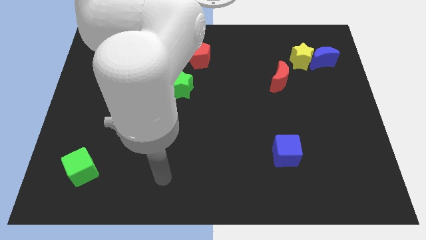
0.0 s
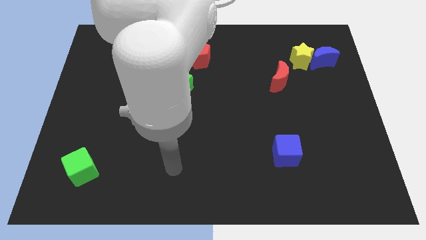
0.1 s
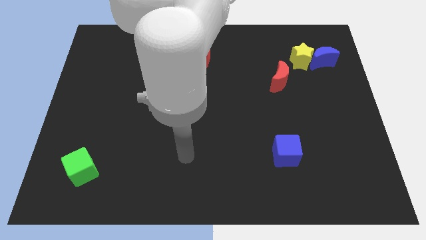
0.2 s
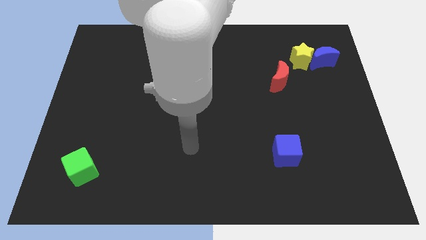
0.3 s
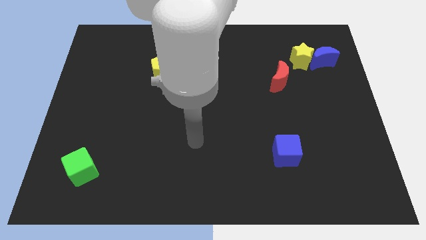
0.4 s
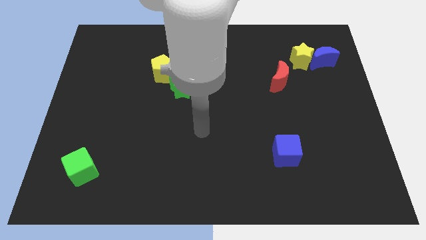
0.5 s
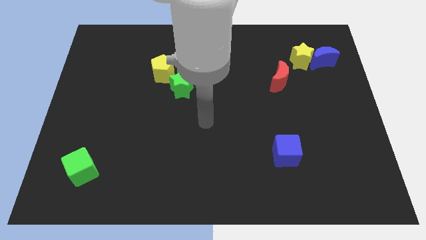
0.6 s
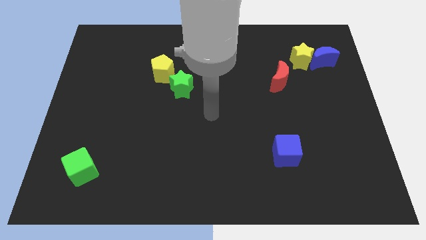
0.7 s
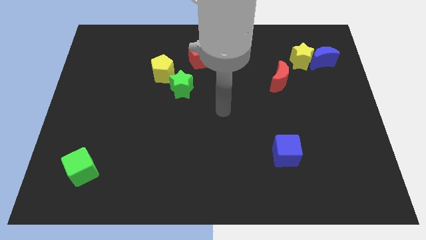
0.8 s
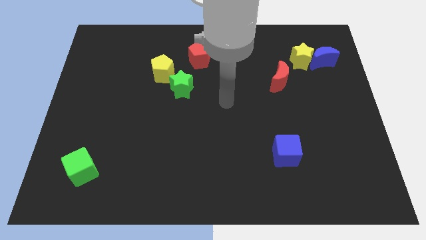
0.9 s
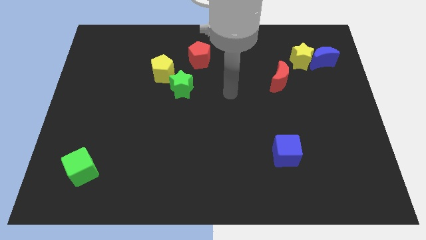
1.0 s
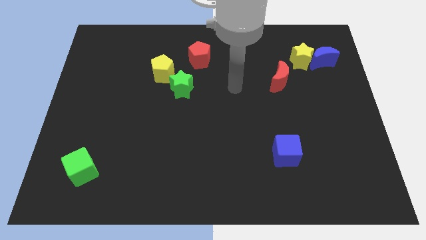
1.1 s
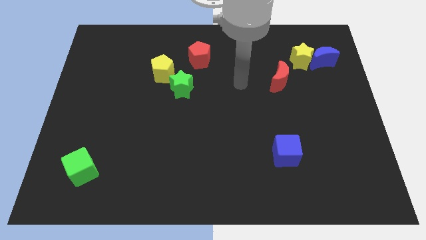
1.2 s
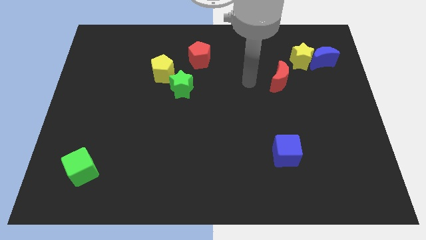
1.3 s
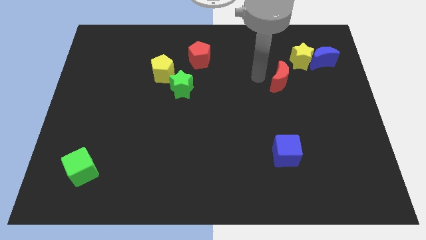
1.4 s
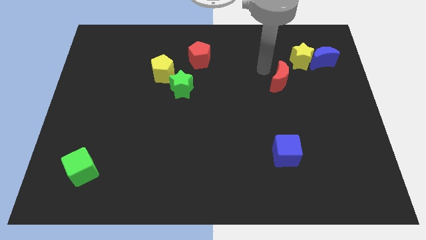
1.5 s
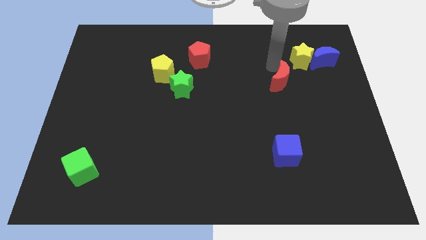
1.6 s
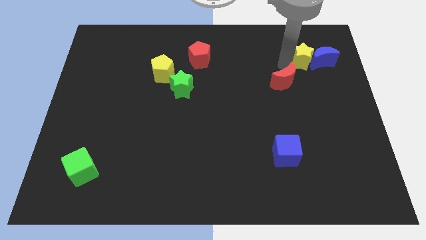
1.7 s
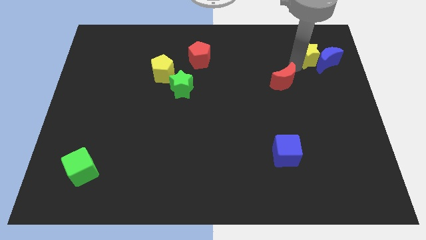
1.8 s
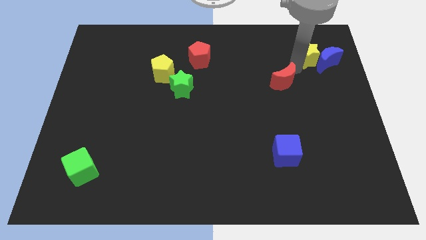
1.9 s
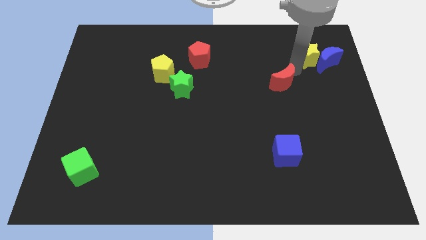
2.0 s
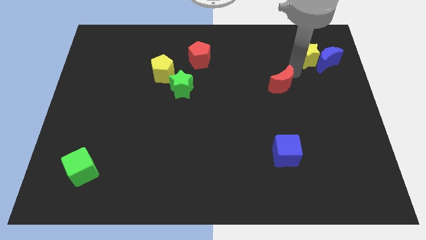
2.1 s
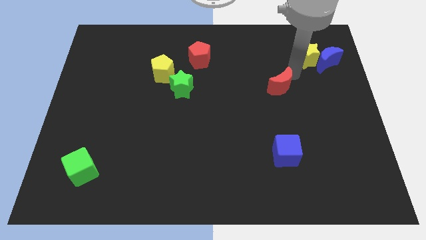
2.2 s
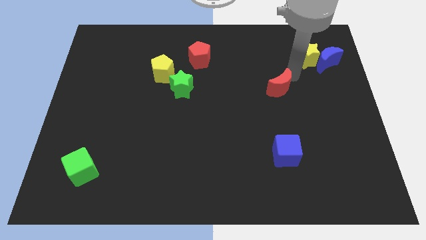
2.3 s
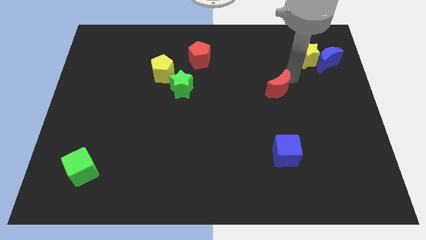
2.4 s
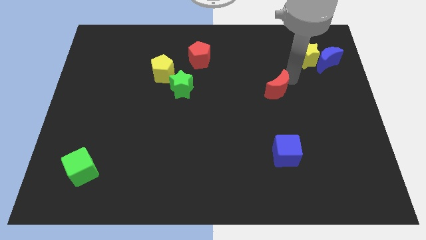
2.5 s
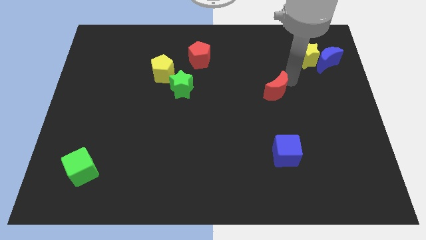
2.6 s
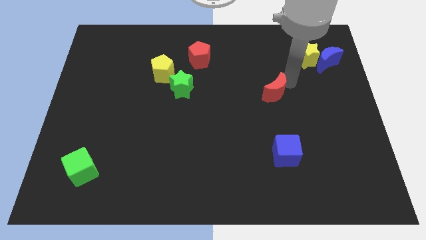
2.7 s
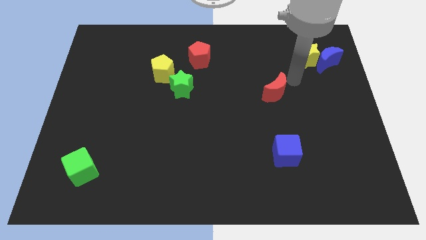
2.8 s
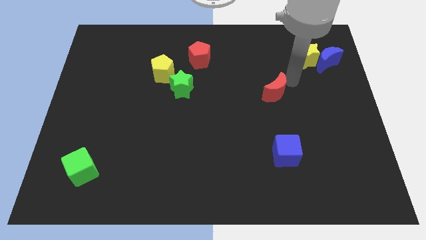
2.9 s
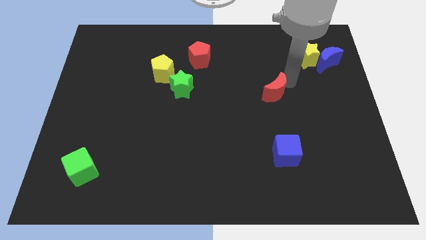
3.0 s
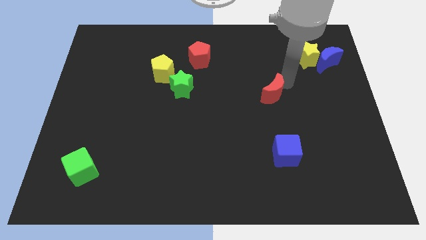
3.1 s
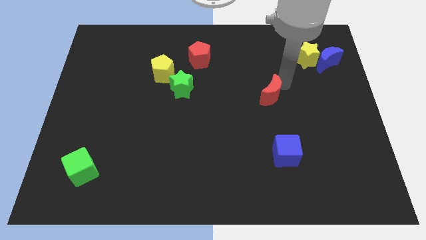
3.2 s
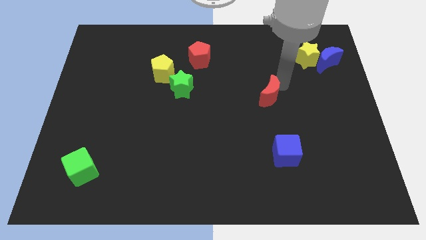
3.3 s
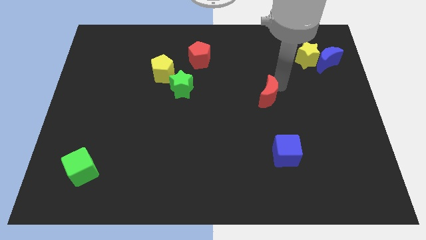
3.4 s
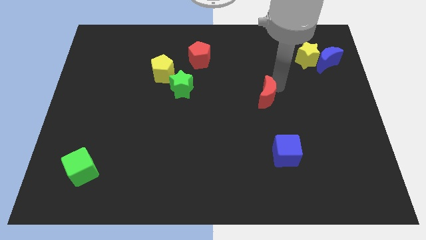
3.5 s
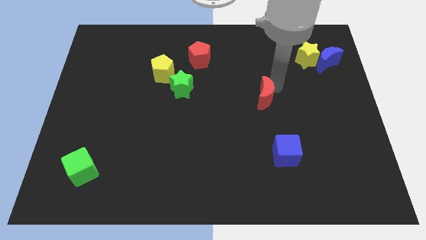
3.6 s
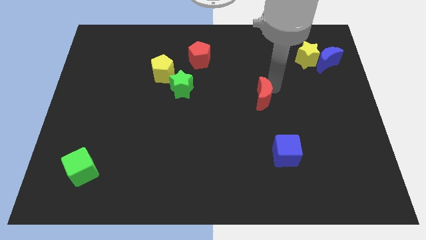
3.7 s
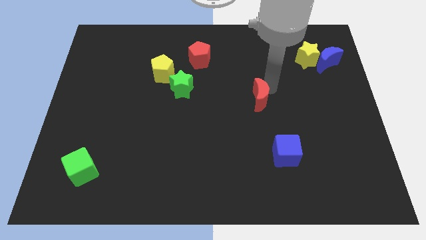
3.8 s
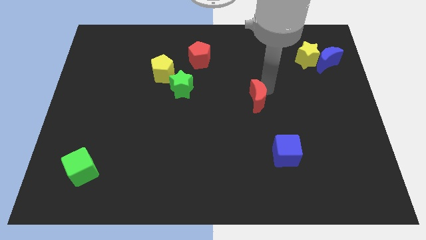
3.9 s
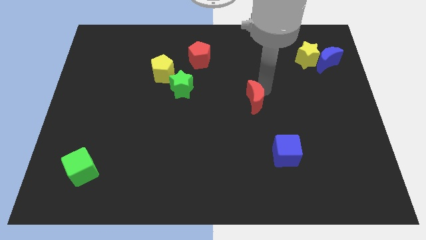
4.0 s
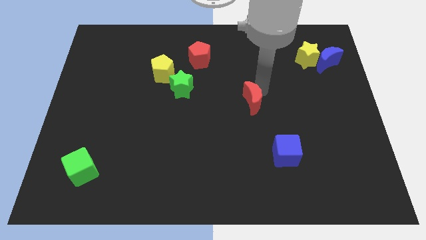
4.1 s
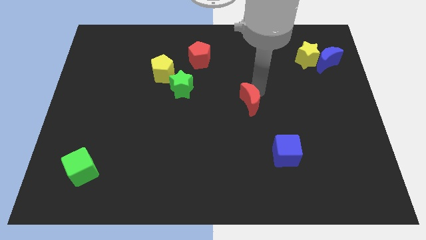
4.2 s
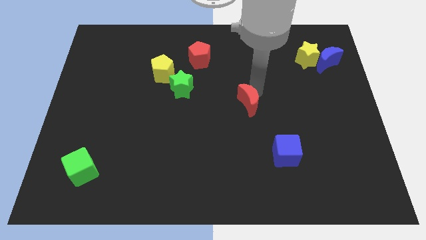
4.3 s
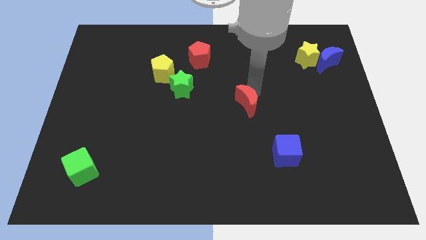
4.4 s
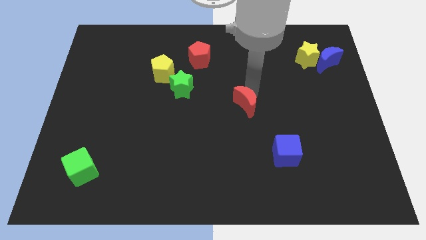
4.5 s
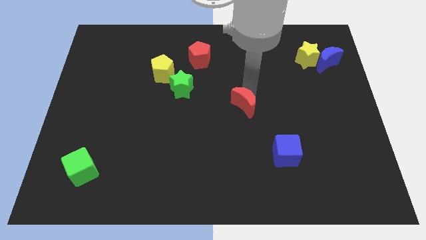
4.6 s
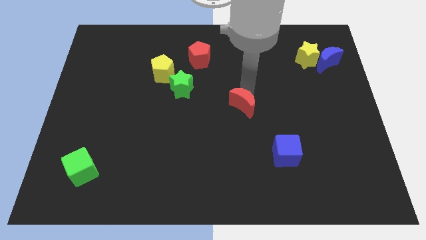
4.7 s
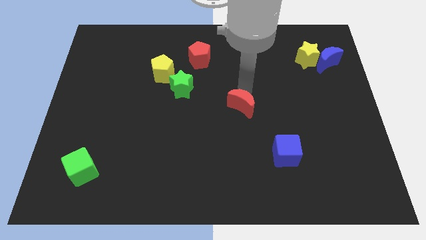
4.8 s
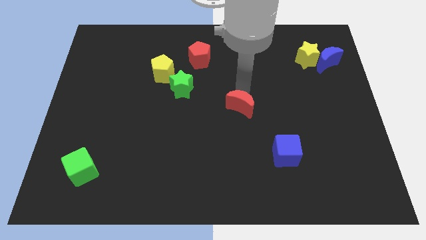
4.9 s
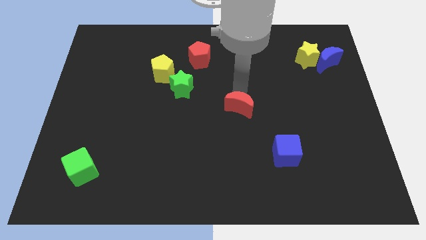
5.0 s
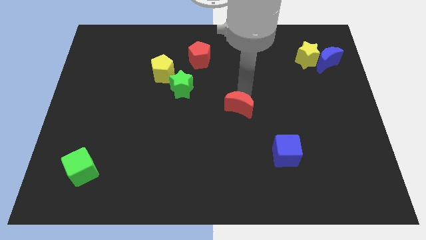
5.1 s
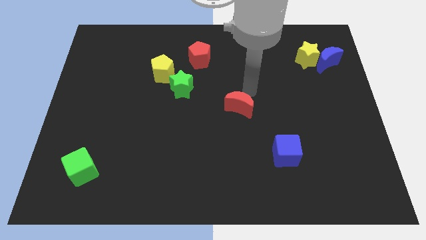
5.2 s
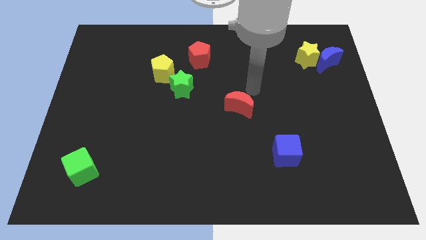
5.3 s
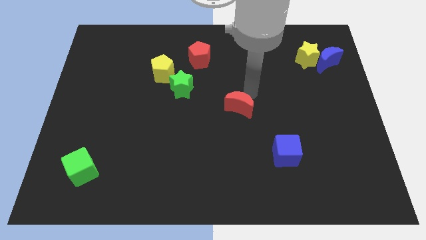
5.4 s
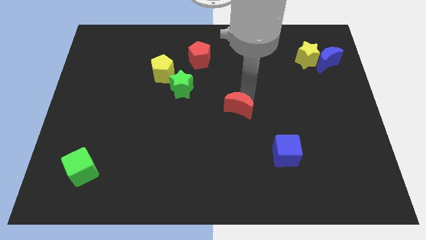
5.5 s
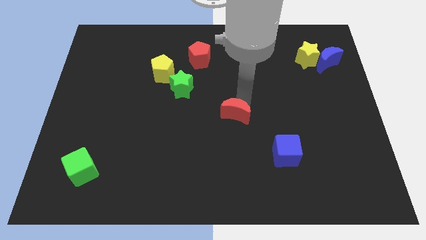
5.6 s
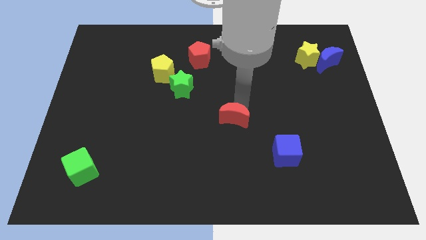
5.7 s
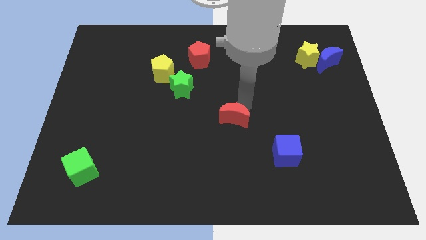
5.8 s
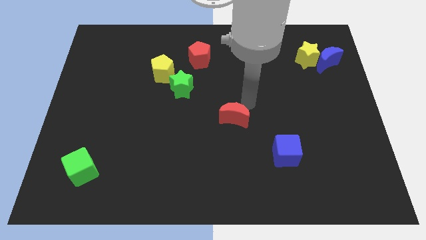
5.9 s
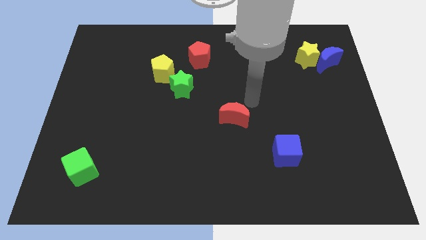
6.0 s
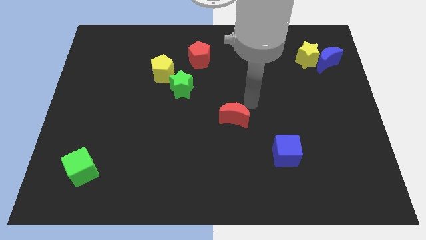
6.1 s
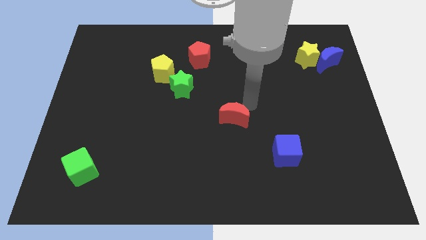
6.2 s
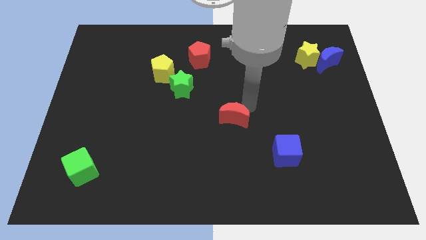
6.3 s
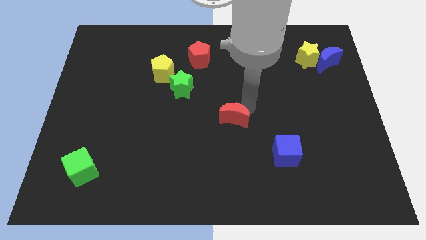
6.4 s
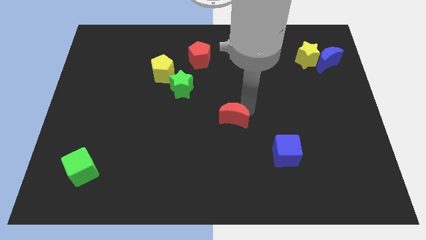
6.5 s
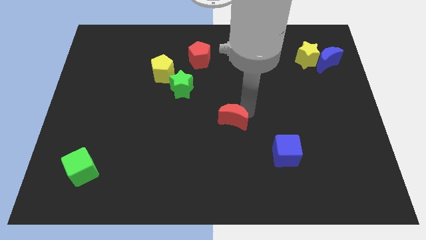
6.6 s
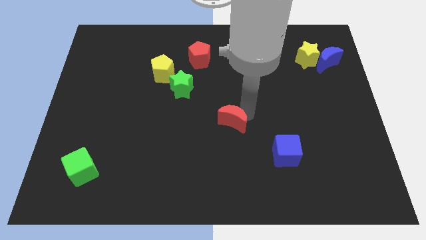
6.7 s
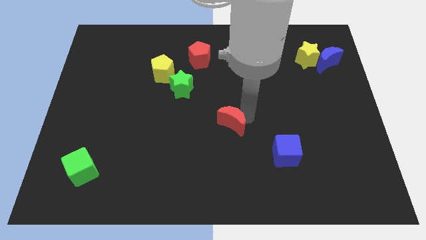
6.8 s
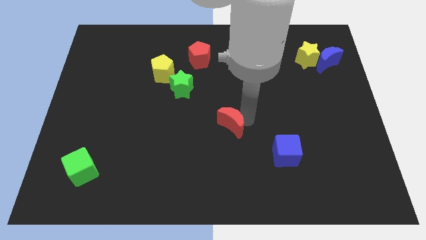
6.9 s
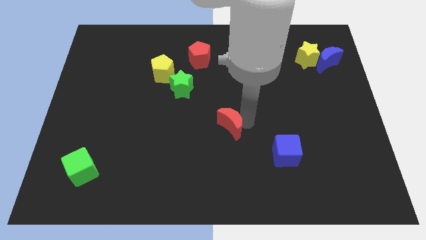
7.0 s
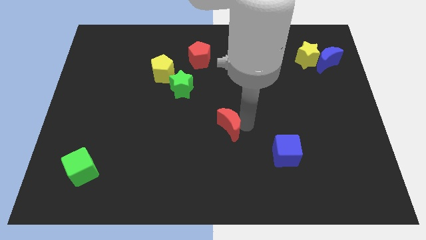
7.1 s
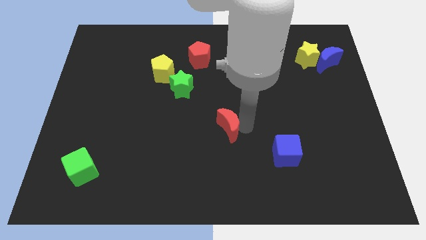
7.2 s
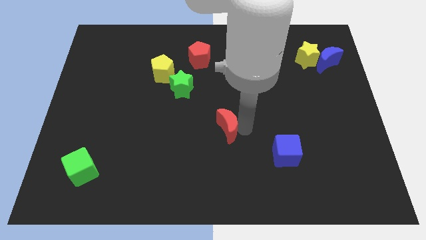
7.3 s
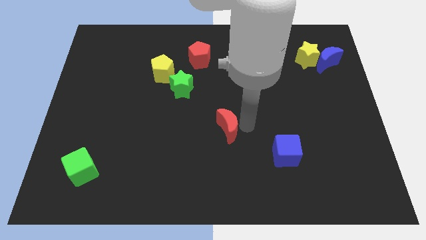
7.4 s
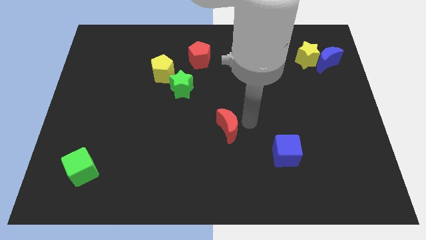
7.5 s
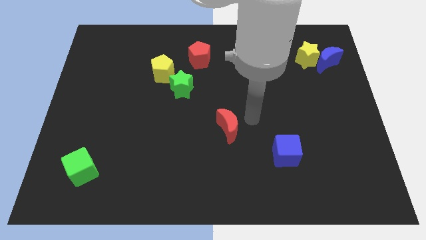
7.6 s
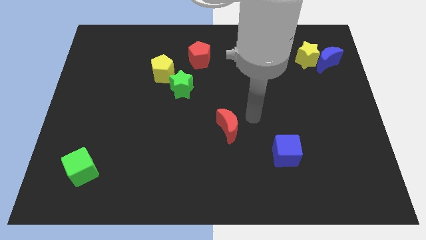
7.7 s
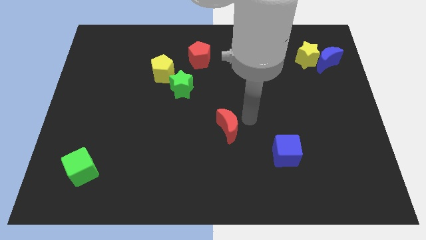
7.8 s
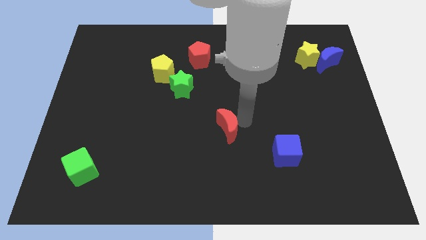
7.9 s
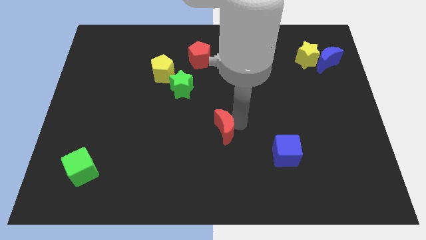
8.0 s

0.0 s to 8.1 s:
push the red moon diagonally down and to the left
